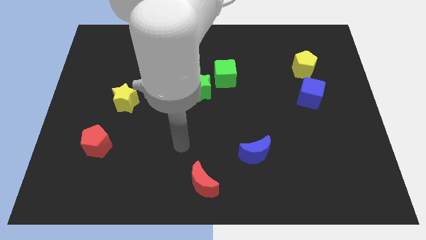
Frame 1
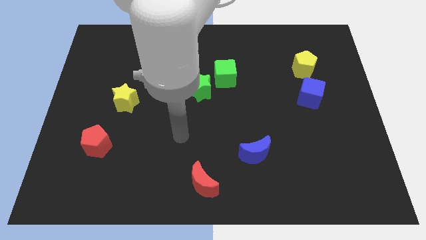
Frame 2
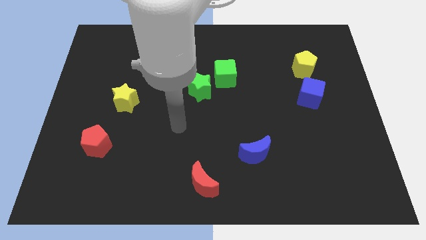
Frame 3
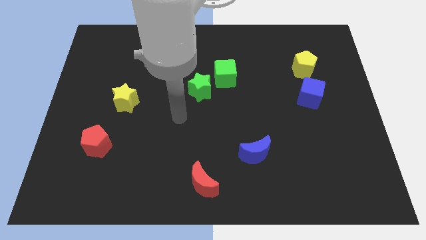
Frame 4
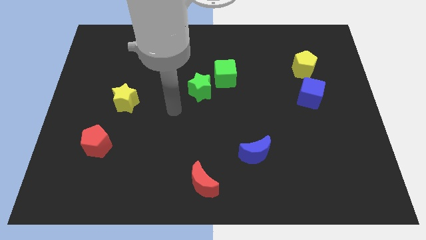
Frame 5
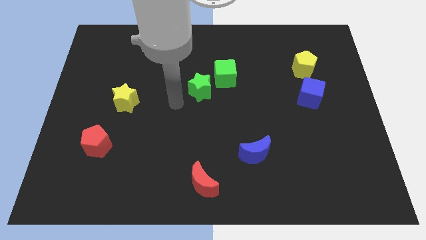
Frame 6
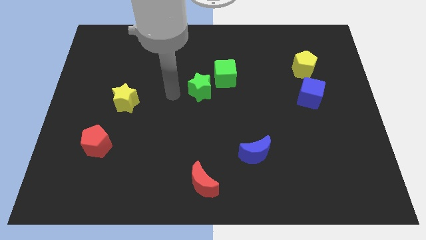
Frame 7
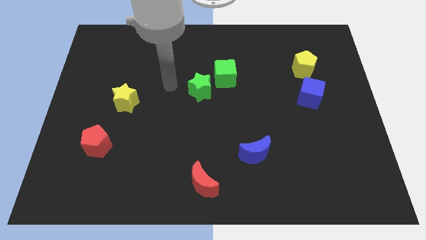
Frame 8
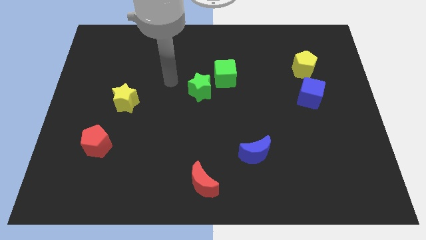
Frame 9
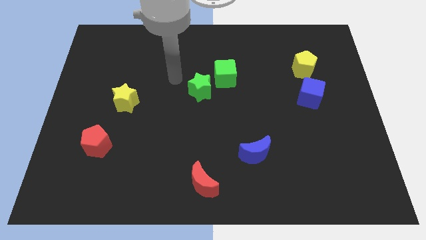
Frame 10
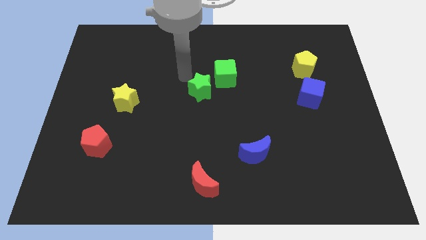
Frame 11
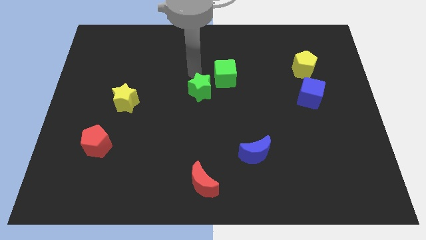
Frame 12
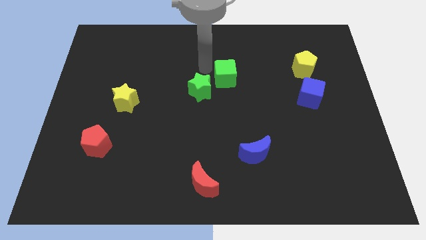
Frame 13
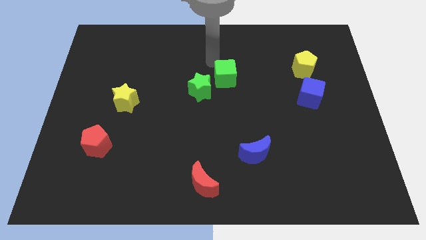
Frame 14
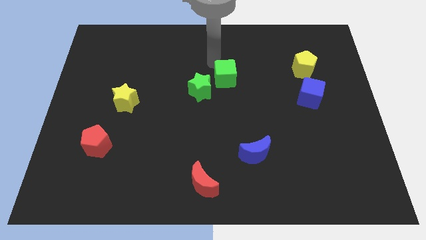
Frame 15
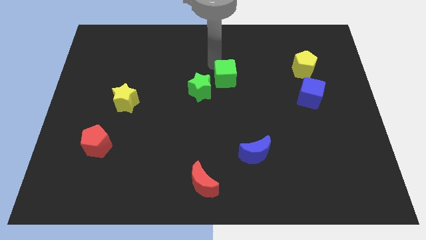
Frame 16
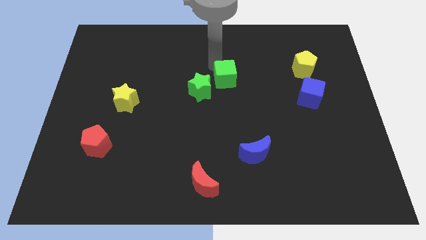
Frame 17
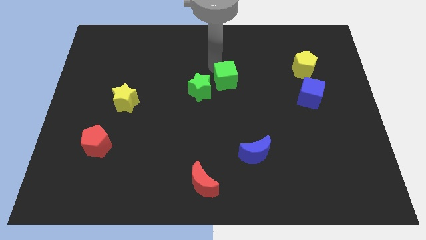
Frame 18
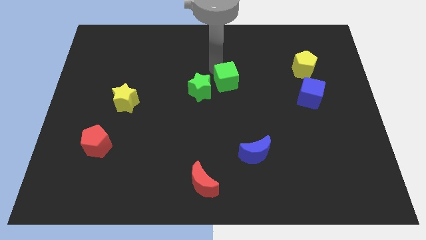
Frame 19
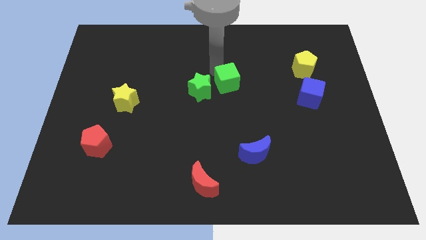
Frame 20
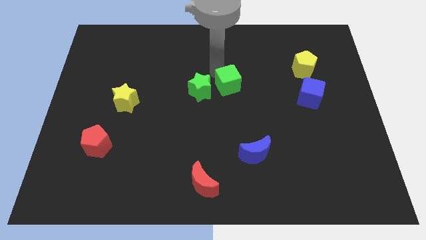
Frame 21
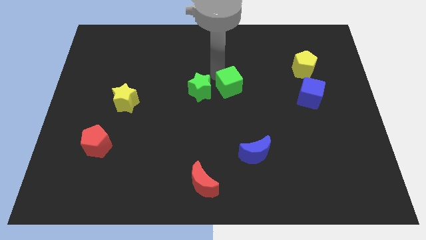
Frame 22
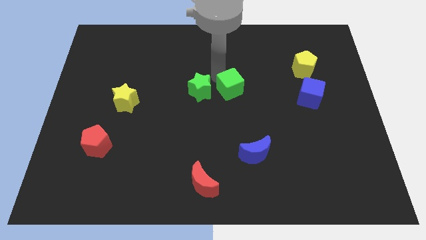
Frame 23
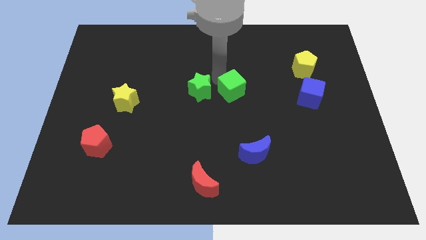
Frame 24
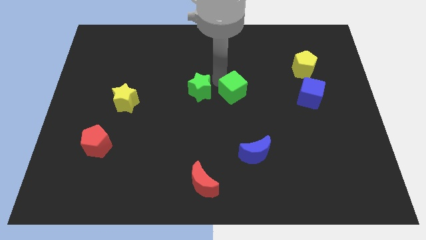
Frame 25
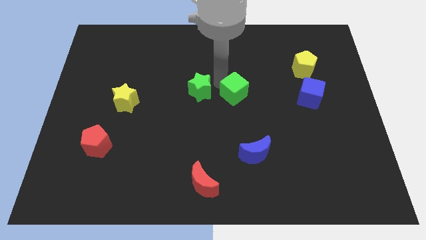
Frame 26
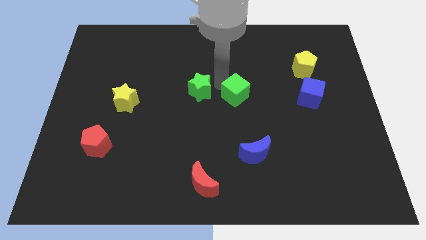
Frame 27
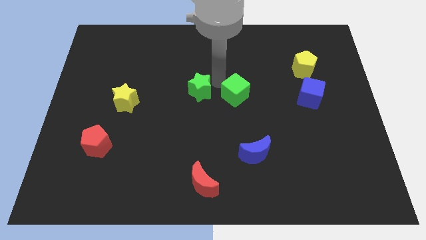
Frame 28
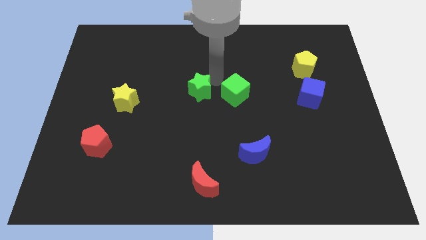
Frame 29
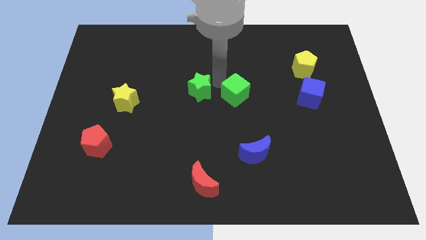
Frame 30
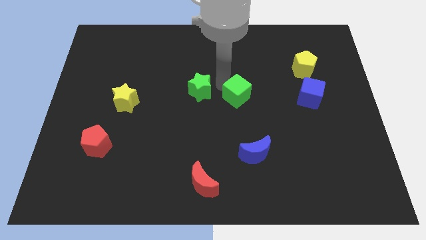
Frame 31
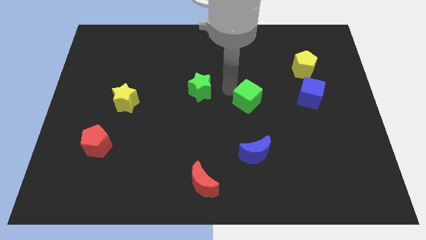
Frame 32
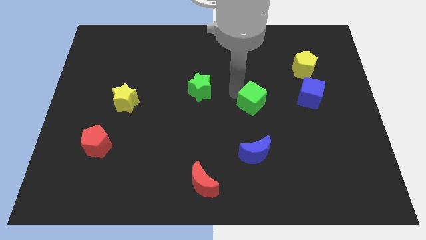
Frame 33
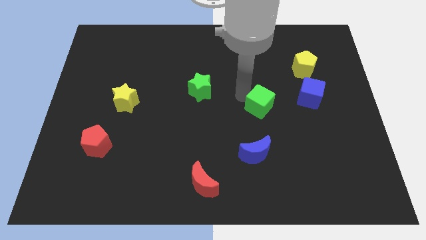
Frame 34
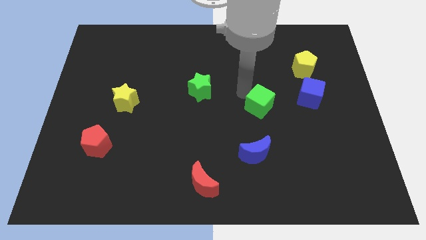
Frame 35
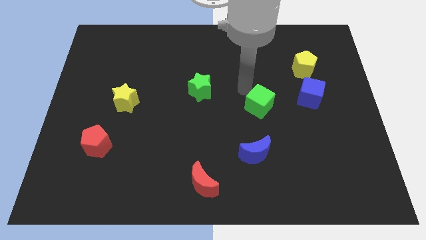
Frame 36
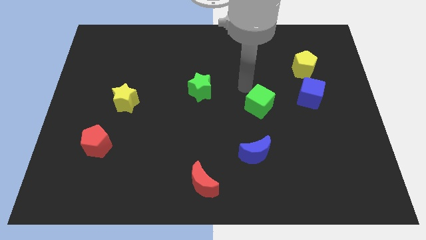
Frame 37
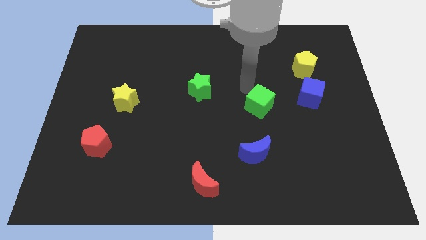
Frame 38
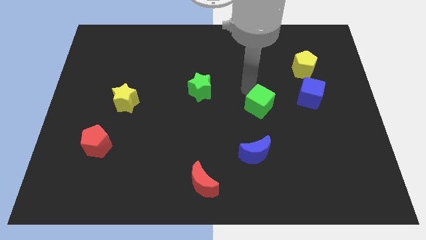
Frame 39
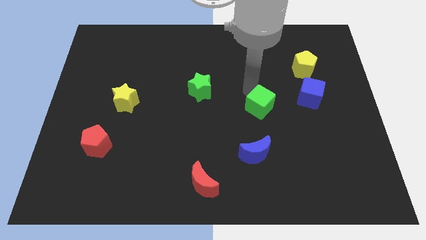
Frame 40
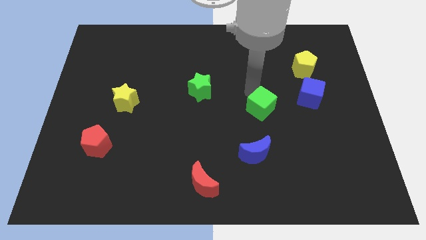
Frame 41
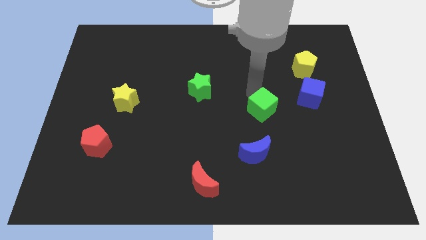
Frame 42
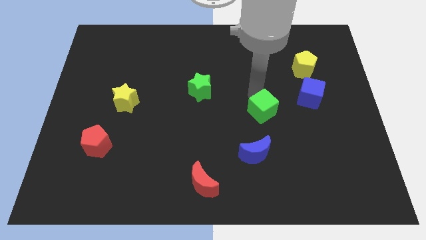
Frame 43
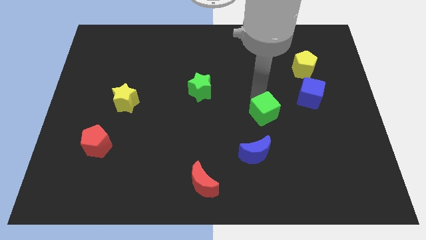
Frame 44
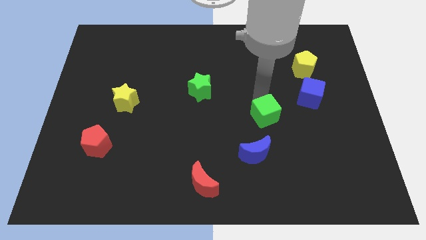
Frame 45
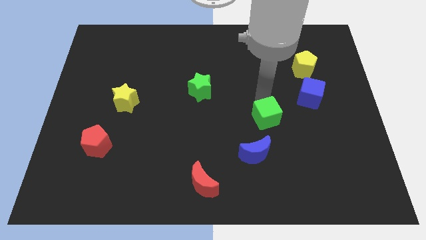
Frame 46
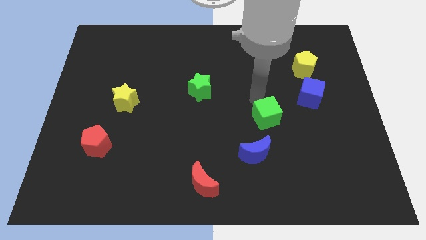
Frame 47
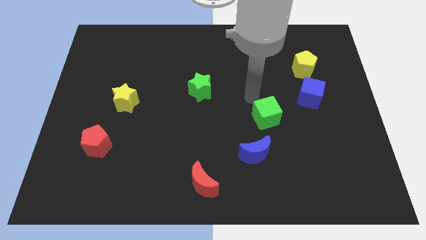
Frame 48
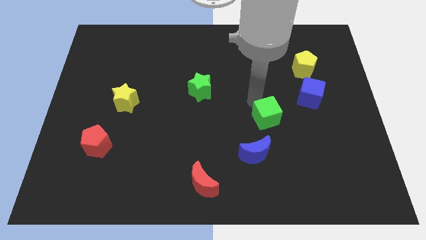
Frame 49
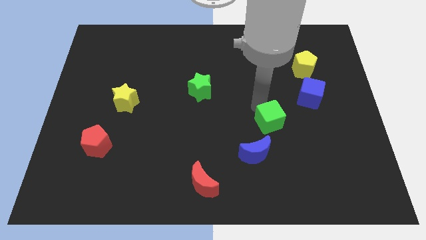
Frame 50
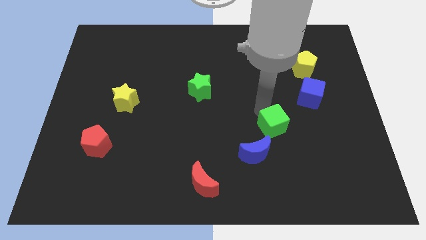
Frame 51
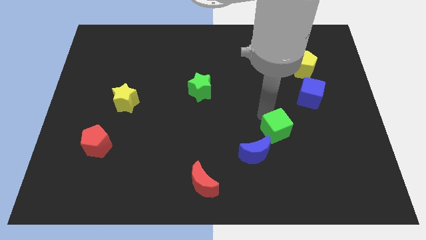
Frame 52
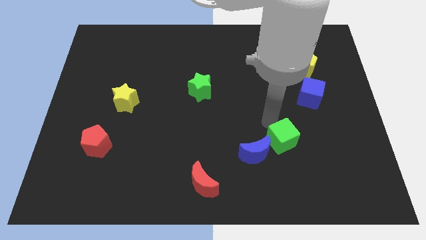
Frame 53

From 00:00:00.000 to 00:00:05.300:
push the green cube to the right side of the blue moon

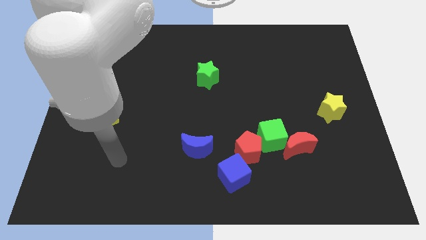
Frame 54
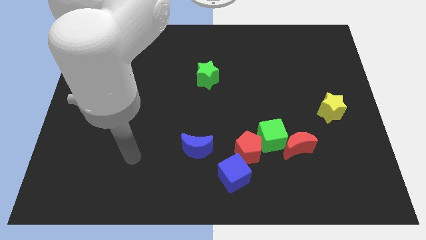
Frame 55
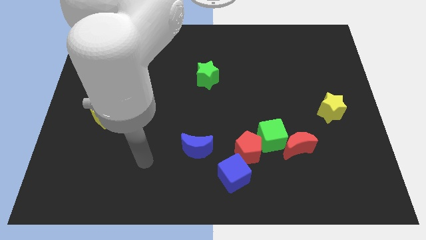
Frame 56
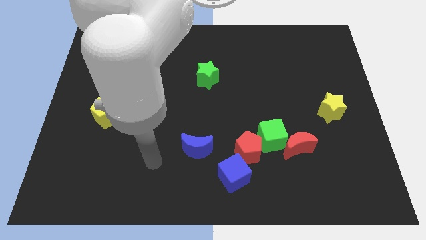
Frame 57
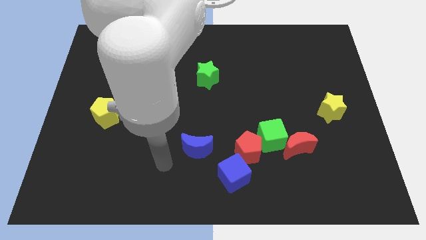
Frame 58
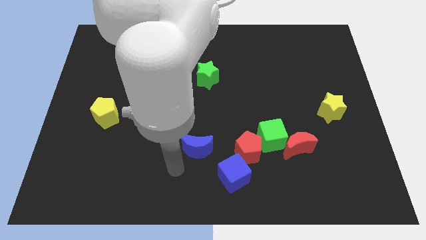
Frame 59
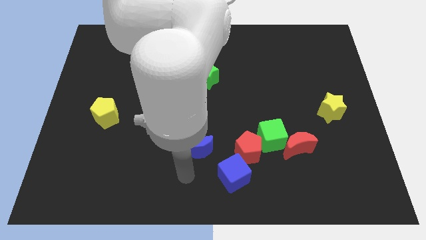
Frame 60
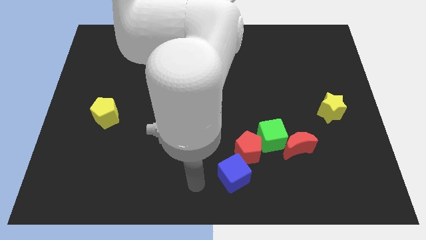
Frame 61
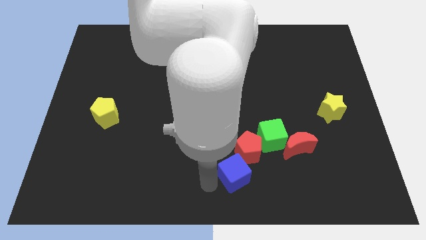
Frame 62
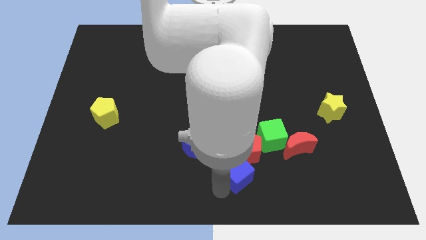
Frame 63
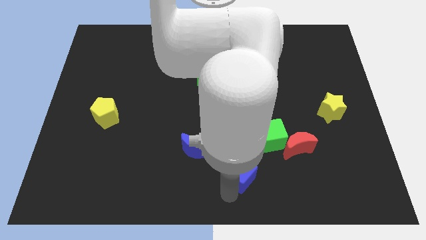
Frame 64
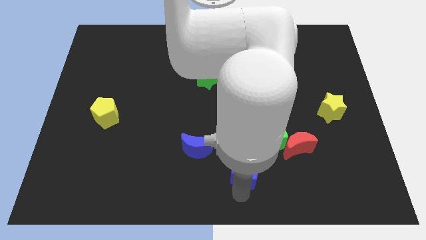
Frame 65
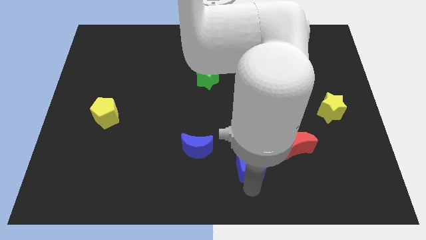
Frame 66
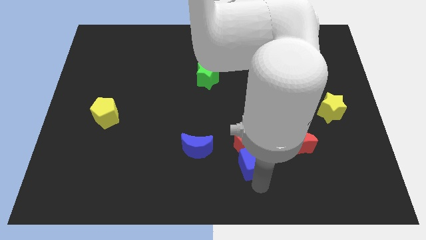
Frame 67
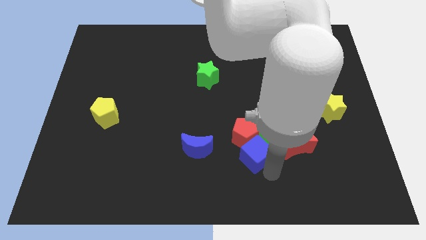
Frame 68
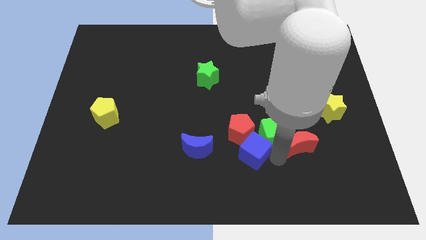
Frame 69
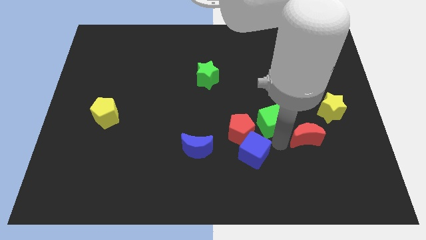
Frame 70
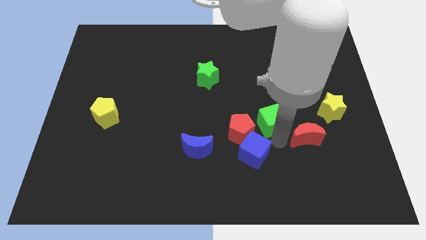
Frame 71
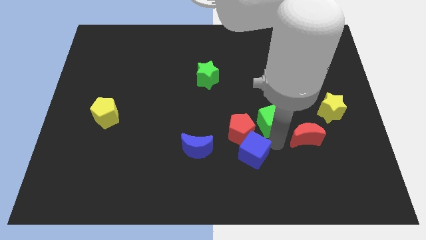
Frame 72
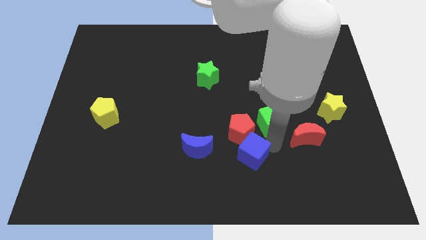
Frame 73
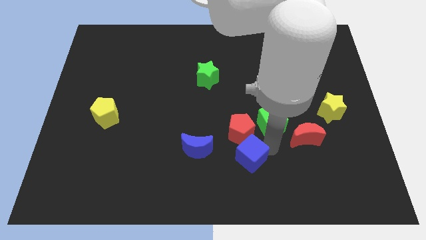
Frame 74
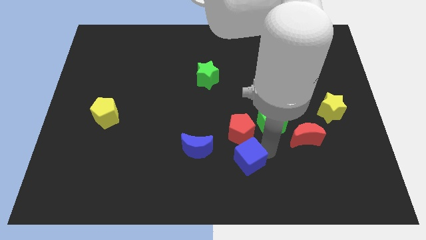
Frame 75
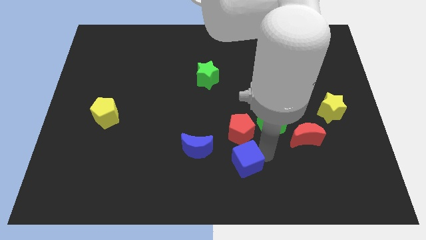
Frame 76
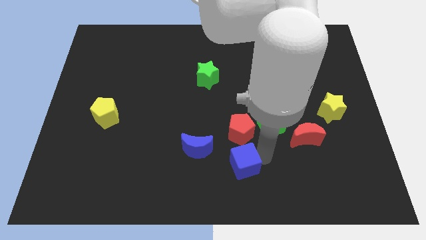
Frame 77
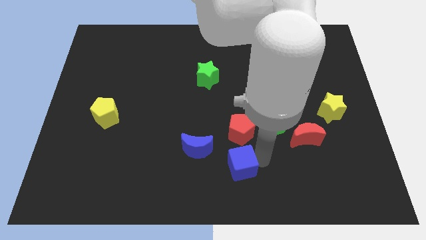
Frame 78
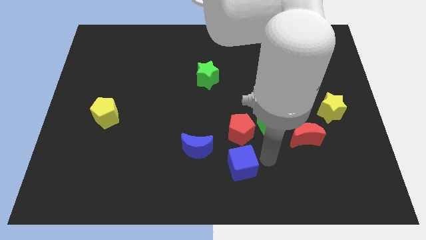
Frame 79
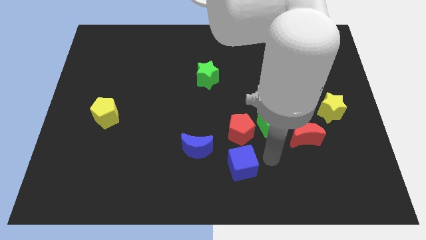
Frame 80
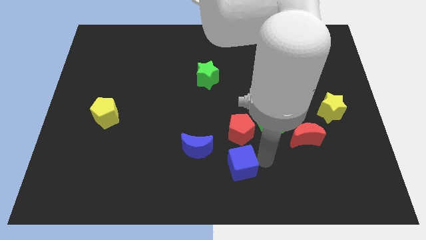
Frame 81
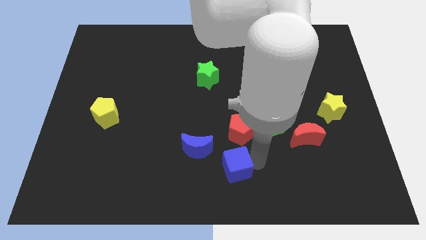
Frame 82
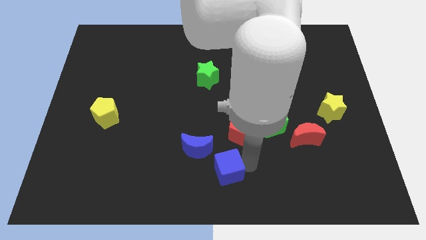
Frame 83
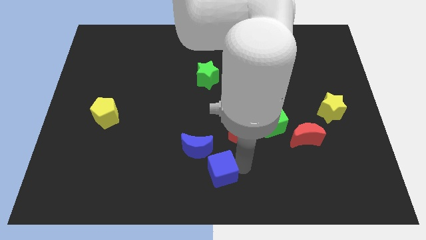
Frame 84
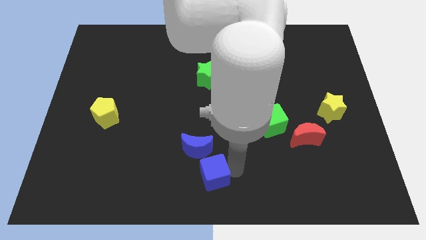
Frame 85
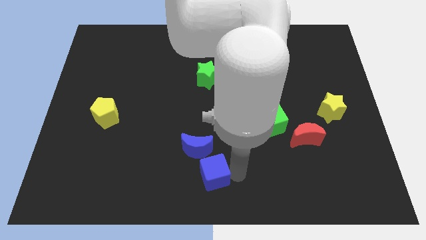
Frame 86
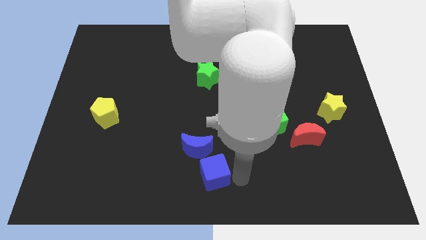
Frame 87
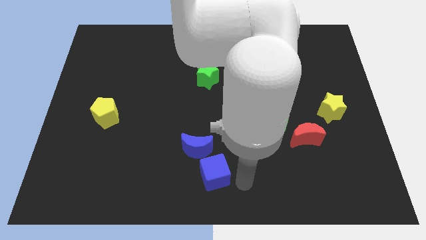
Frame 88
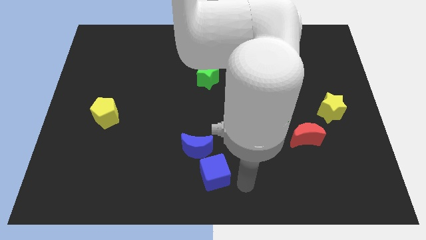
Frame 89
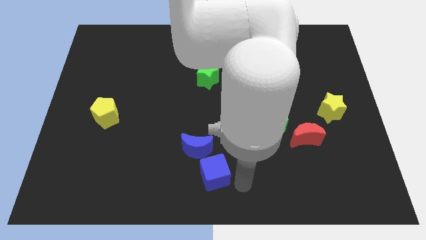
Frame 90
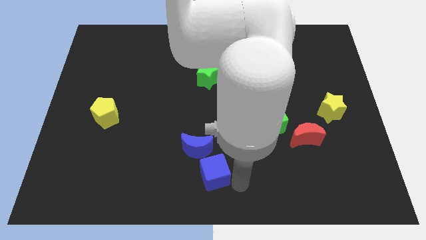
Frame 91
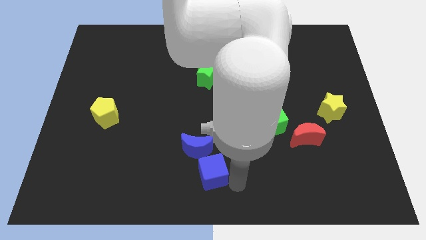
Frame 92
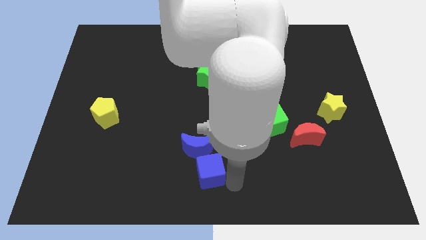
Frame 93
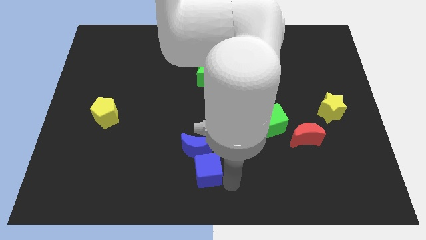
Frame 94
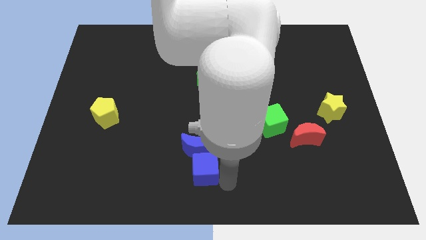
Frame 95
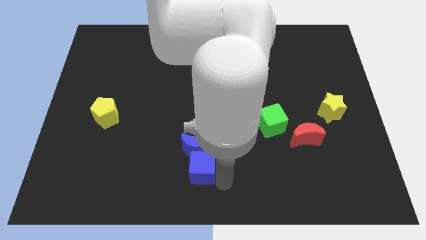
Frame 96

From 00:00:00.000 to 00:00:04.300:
move the blue cube diagonally down and to the left of the blue moon
